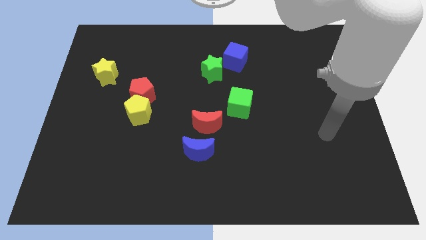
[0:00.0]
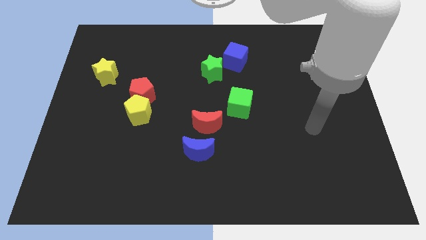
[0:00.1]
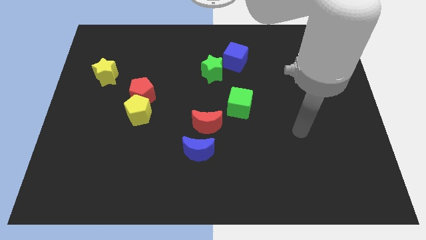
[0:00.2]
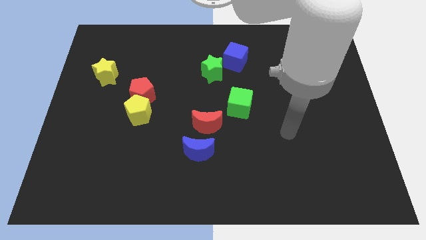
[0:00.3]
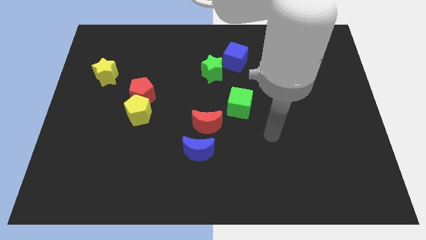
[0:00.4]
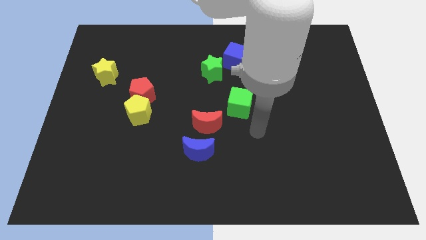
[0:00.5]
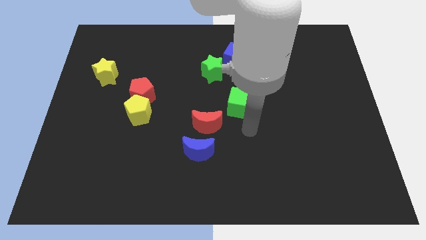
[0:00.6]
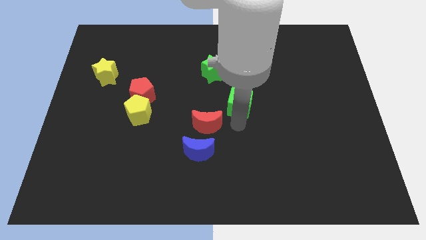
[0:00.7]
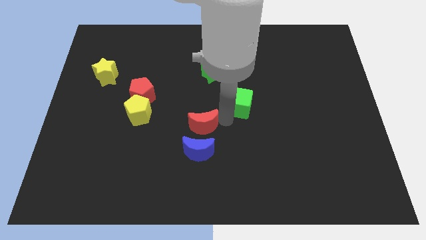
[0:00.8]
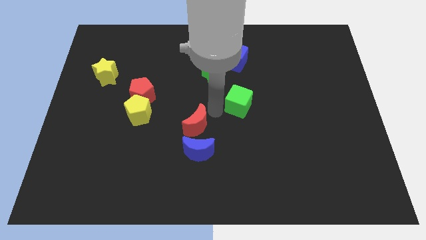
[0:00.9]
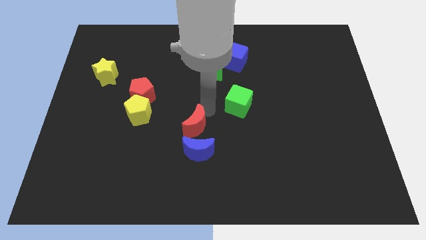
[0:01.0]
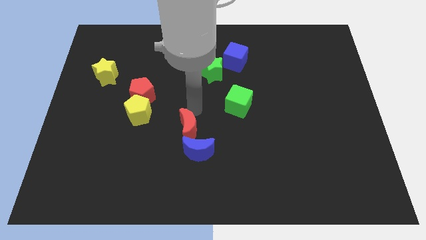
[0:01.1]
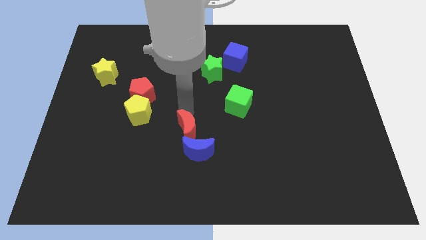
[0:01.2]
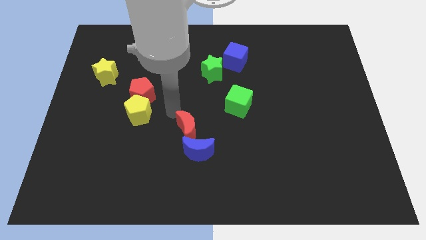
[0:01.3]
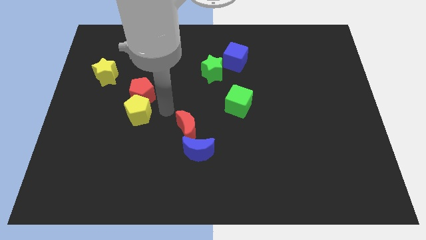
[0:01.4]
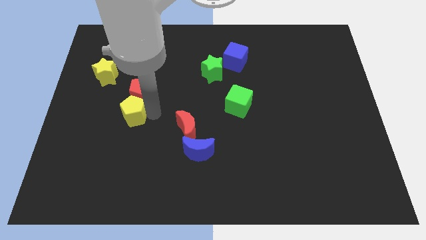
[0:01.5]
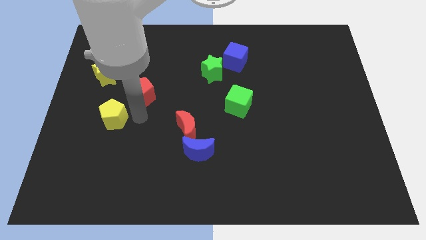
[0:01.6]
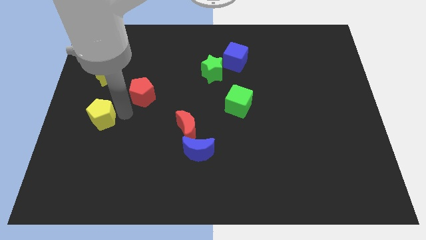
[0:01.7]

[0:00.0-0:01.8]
separate the red pentagon from the yellow pentagon

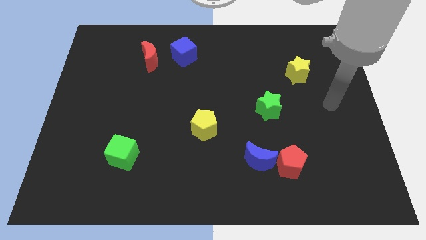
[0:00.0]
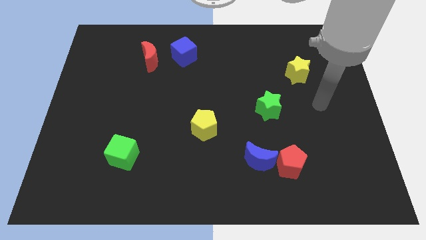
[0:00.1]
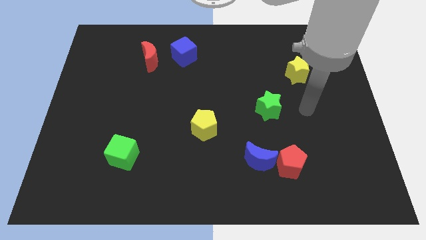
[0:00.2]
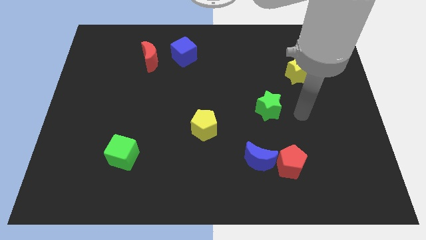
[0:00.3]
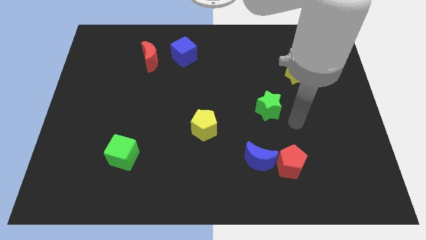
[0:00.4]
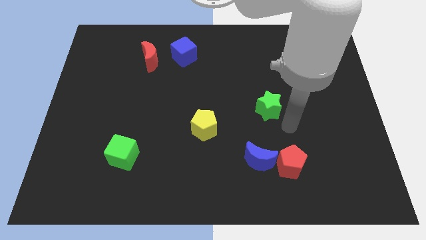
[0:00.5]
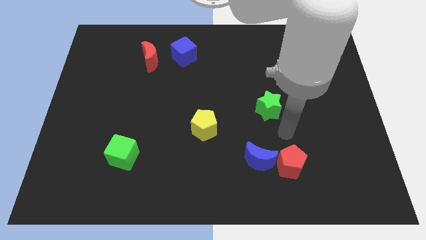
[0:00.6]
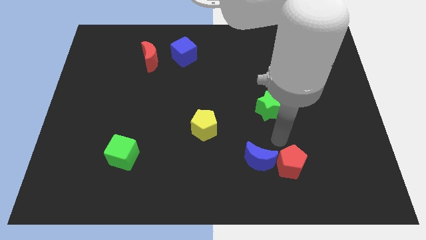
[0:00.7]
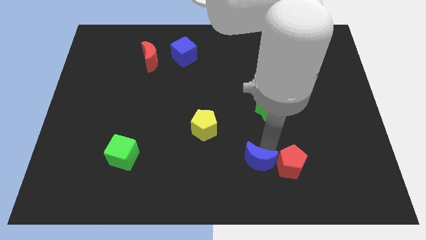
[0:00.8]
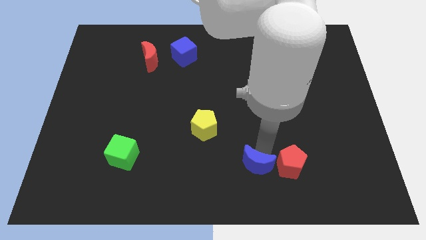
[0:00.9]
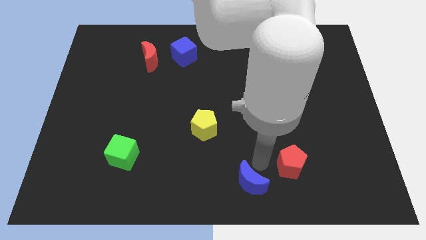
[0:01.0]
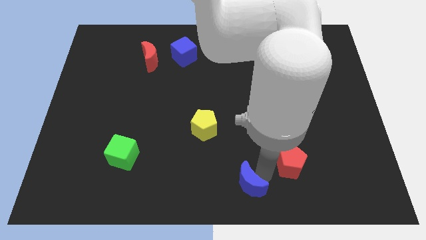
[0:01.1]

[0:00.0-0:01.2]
move the red pentagon away from the blue moon

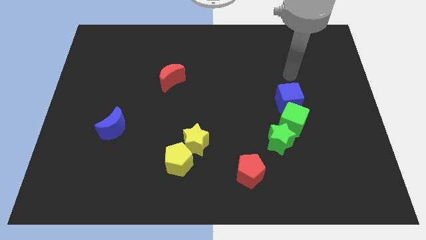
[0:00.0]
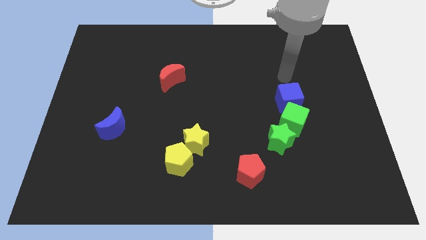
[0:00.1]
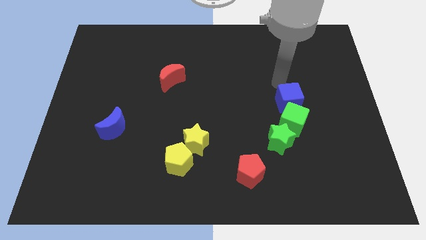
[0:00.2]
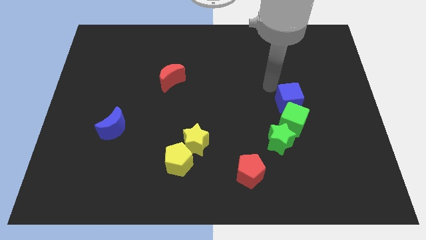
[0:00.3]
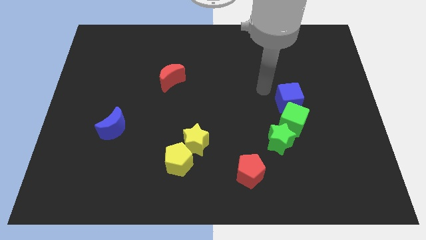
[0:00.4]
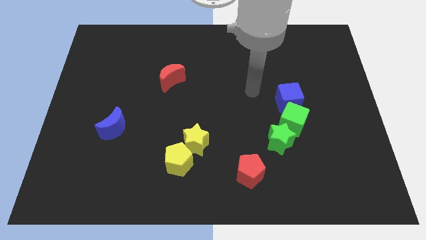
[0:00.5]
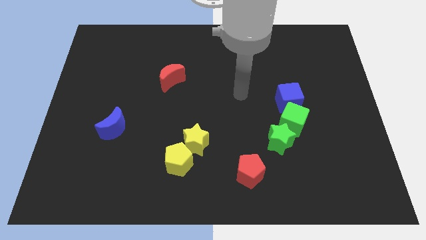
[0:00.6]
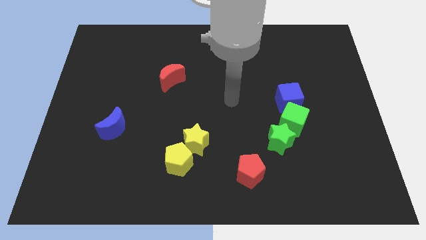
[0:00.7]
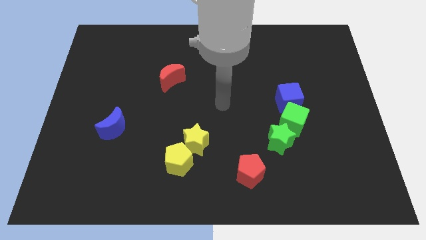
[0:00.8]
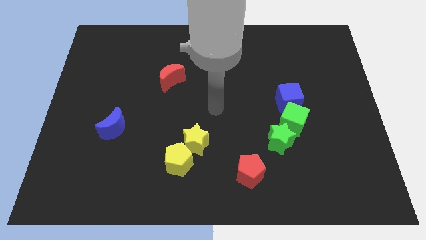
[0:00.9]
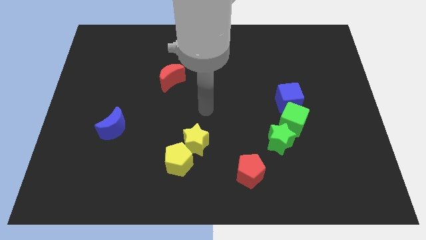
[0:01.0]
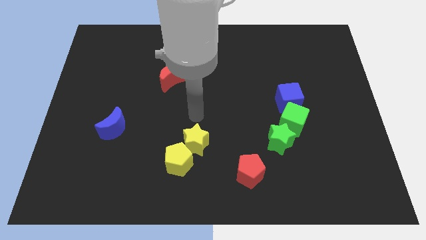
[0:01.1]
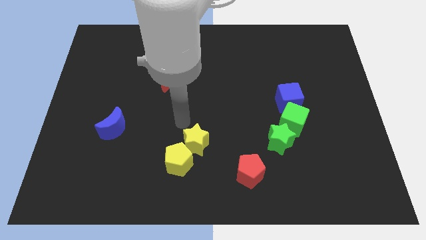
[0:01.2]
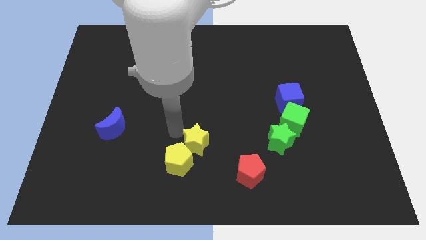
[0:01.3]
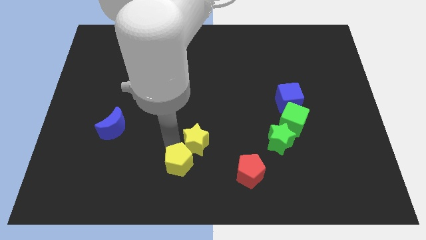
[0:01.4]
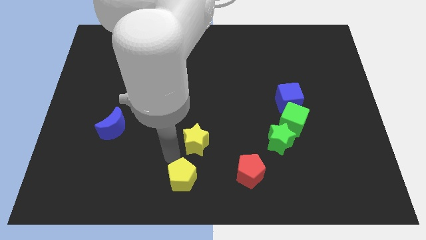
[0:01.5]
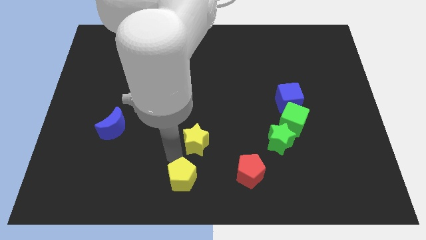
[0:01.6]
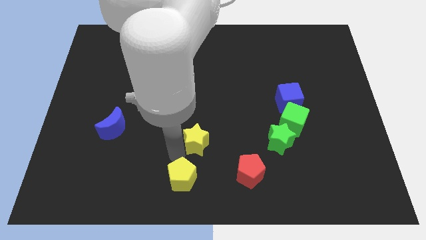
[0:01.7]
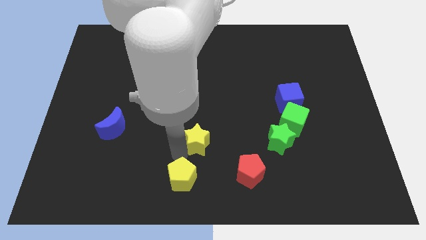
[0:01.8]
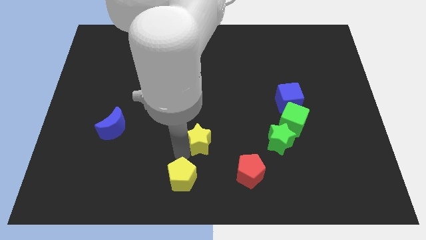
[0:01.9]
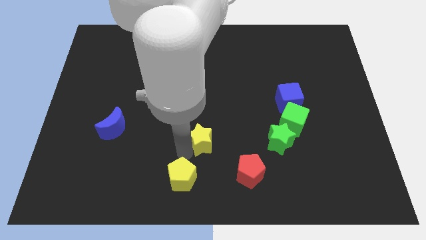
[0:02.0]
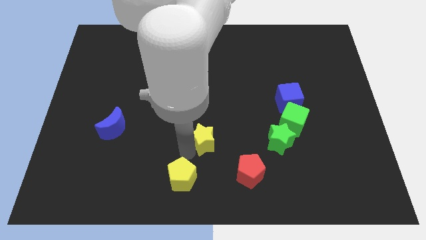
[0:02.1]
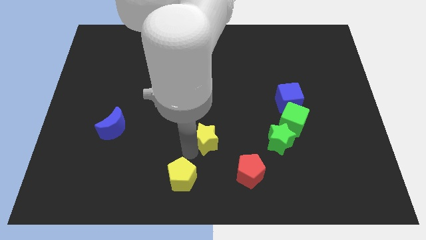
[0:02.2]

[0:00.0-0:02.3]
separate the yellow star from the yellow pentagon

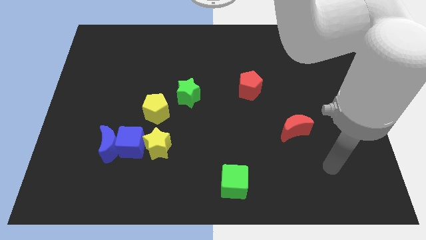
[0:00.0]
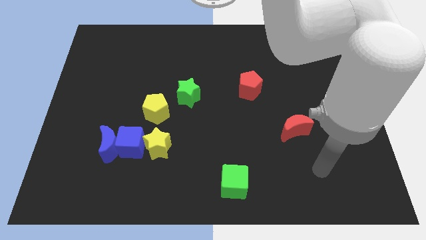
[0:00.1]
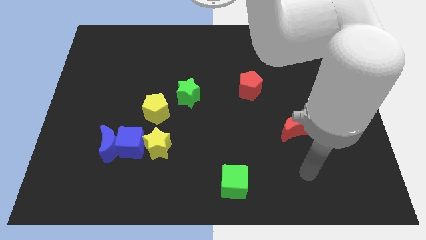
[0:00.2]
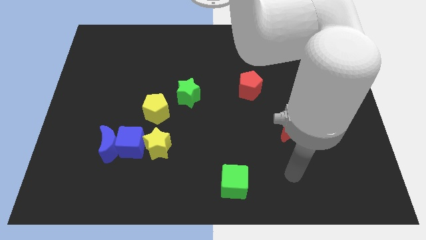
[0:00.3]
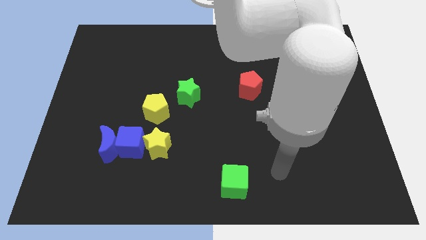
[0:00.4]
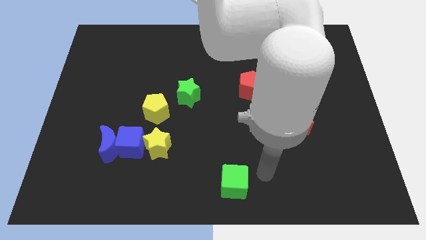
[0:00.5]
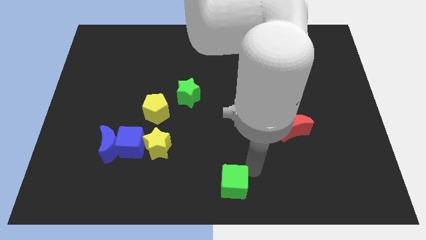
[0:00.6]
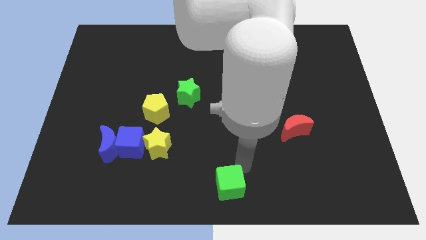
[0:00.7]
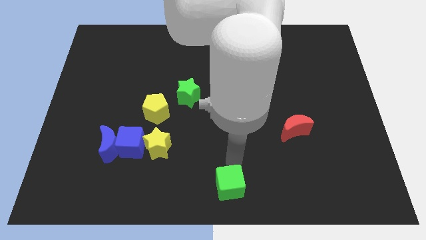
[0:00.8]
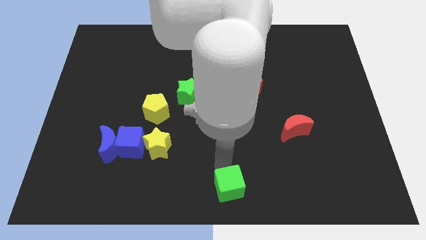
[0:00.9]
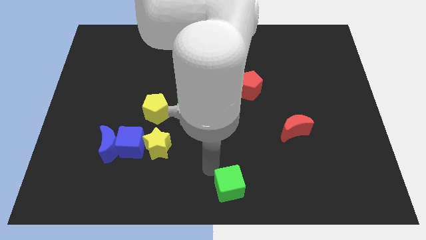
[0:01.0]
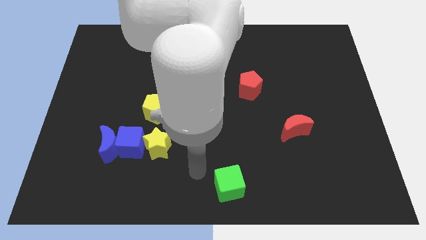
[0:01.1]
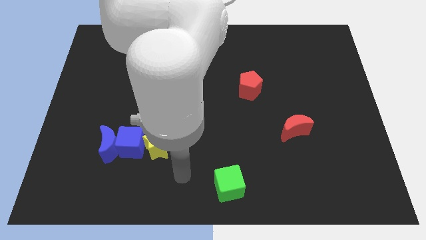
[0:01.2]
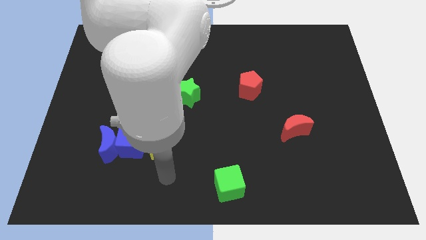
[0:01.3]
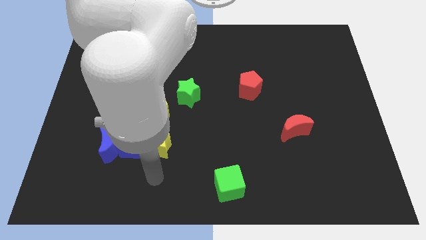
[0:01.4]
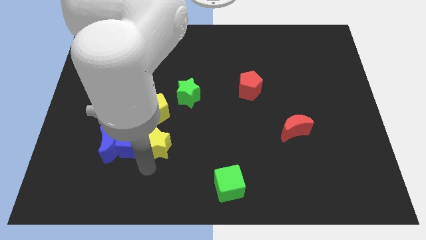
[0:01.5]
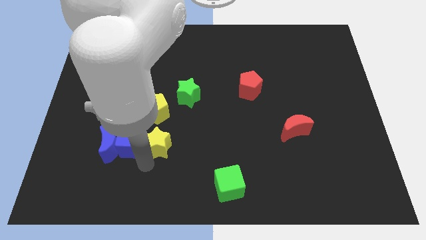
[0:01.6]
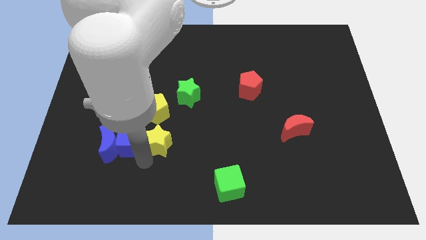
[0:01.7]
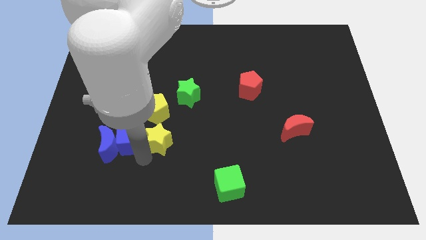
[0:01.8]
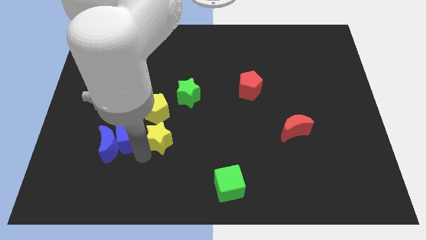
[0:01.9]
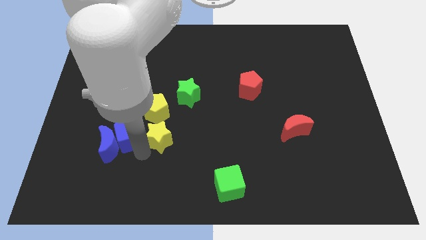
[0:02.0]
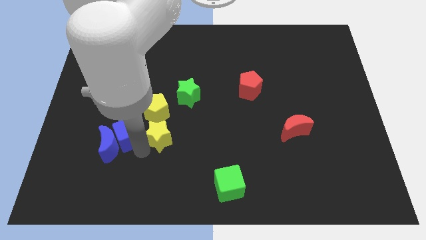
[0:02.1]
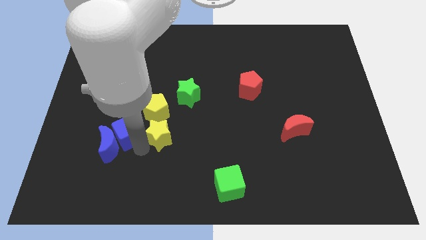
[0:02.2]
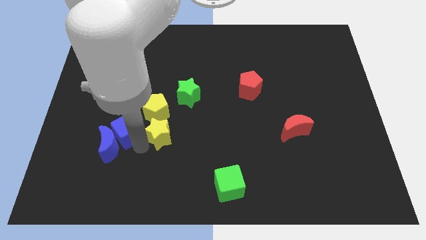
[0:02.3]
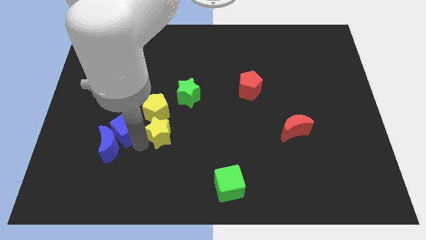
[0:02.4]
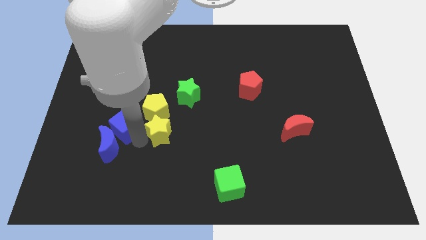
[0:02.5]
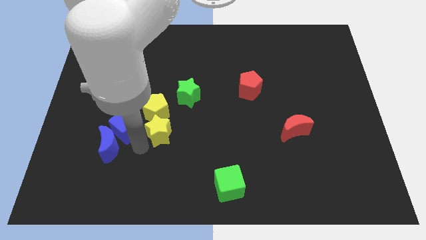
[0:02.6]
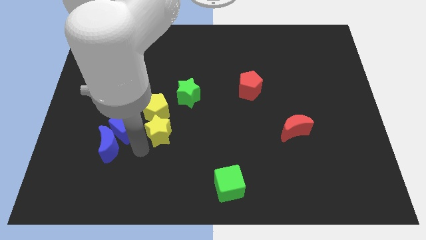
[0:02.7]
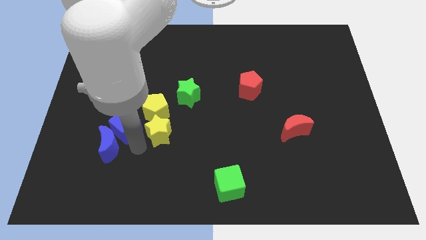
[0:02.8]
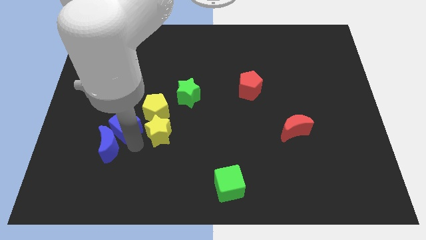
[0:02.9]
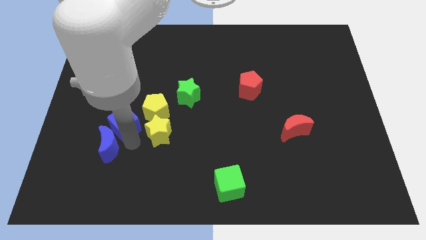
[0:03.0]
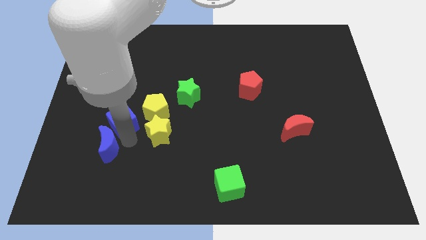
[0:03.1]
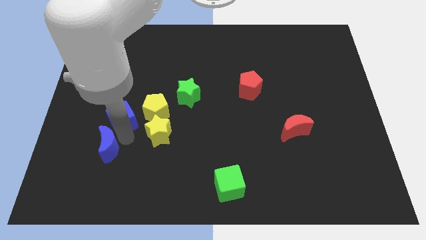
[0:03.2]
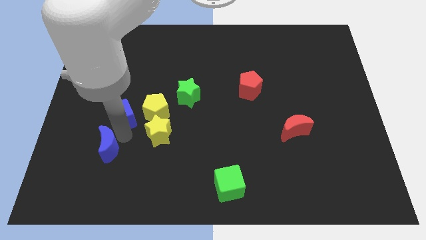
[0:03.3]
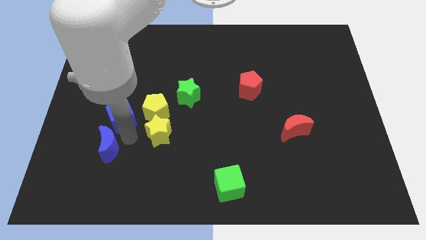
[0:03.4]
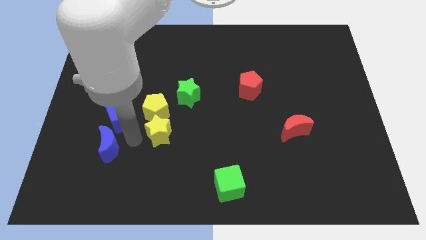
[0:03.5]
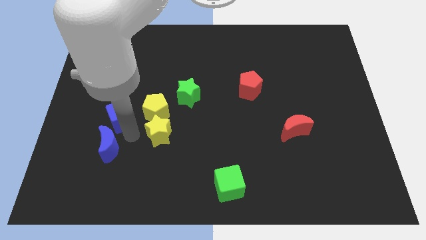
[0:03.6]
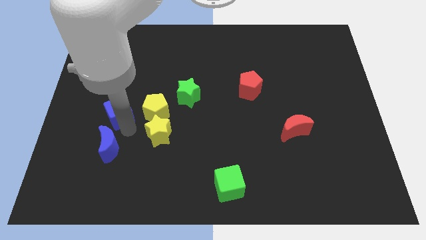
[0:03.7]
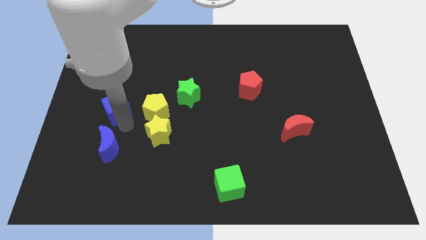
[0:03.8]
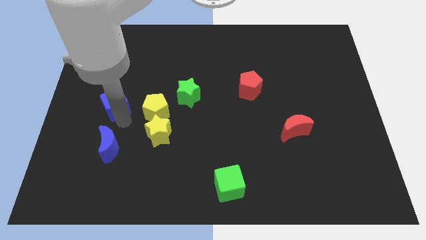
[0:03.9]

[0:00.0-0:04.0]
pull the blue cube apart from the blue moon and yellow star

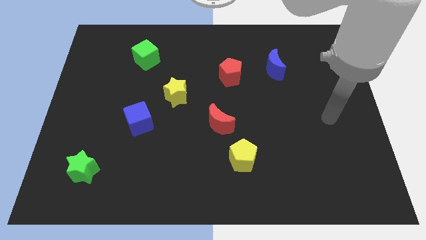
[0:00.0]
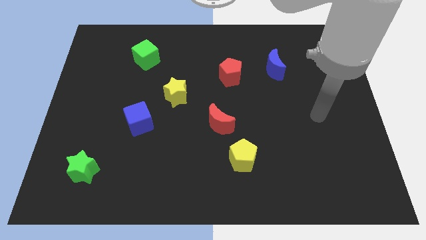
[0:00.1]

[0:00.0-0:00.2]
pull the red moon apart from the yellow pentagon
